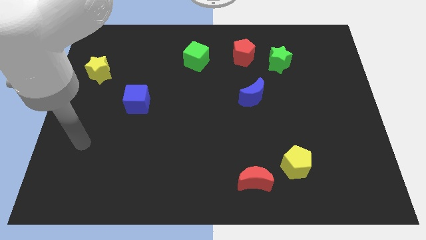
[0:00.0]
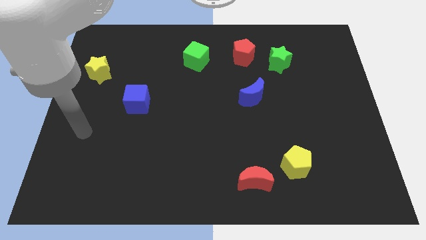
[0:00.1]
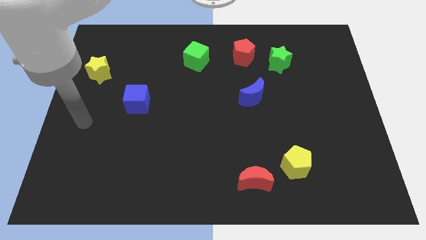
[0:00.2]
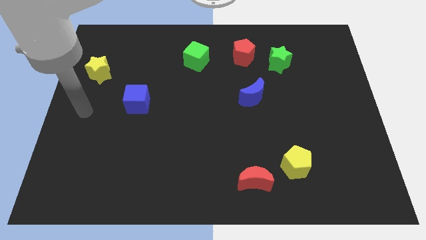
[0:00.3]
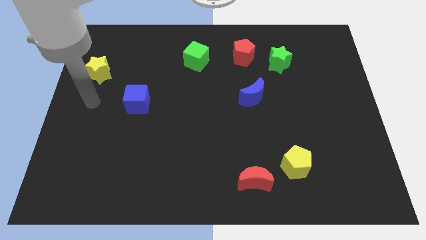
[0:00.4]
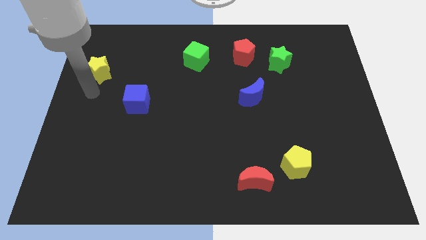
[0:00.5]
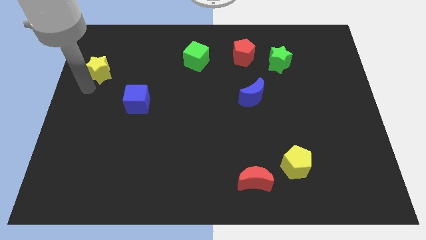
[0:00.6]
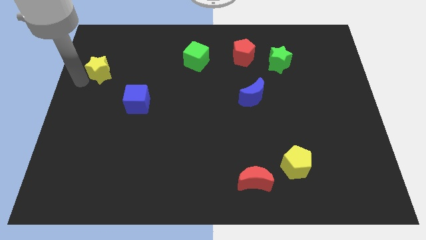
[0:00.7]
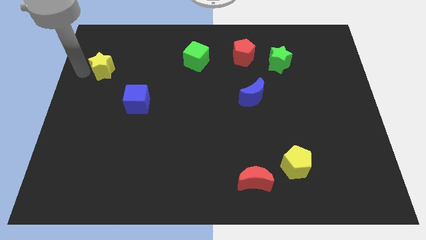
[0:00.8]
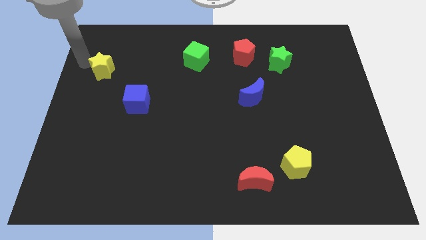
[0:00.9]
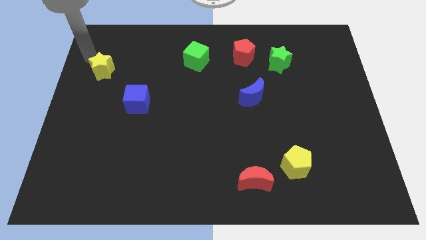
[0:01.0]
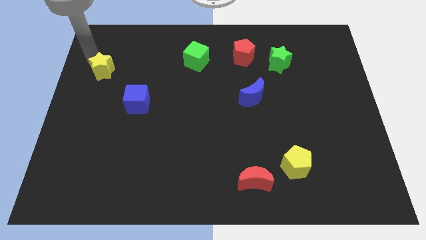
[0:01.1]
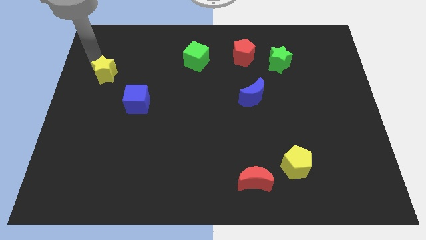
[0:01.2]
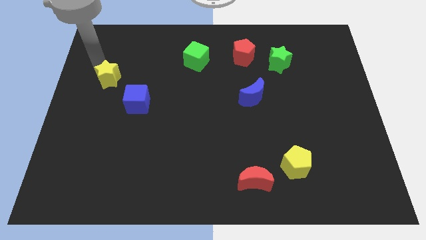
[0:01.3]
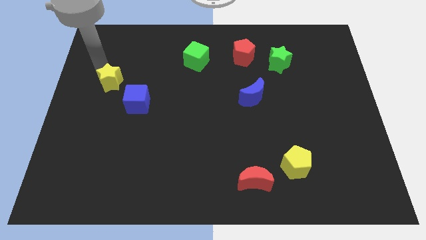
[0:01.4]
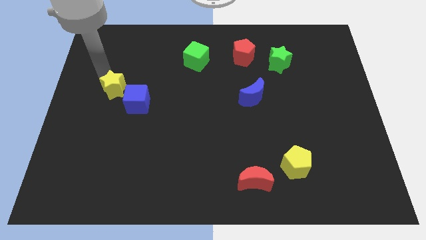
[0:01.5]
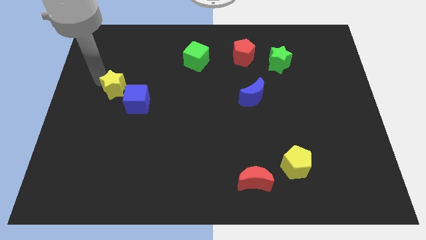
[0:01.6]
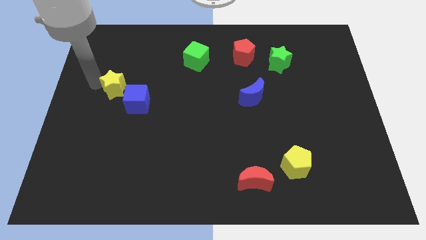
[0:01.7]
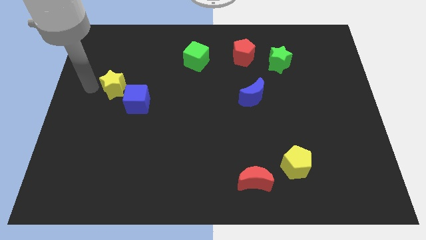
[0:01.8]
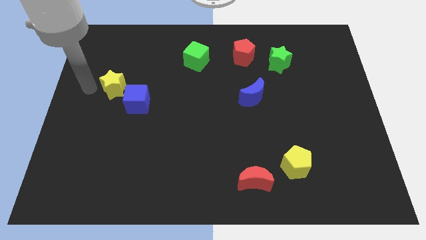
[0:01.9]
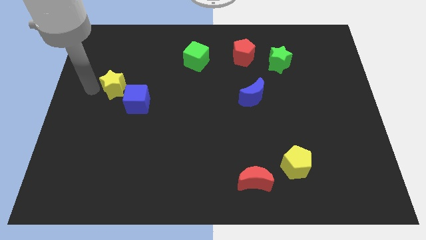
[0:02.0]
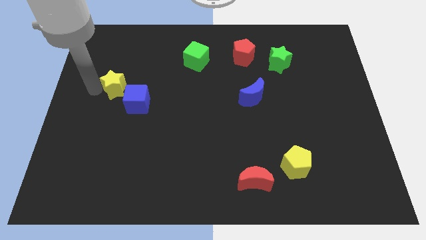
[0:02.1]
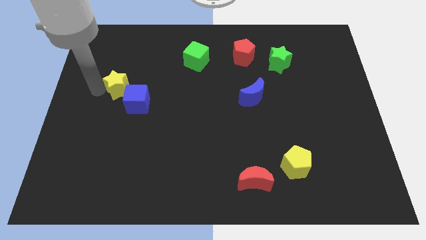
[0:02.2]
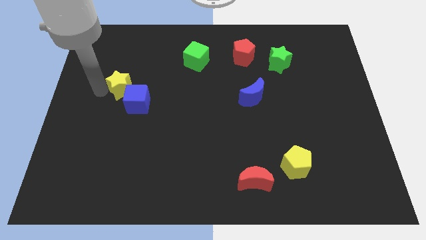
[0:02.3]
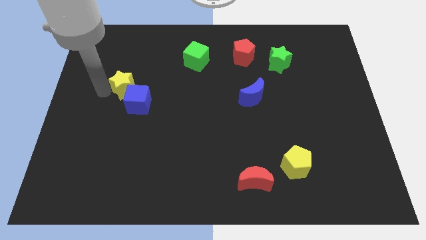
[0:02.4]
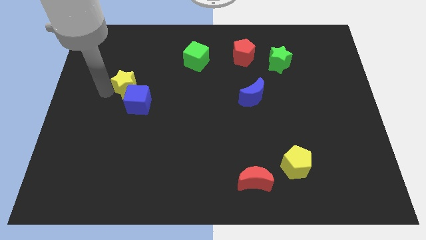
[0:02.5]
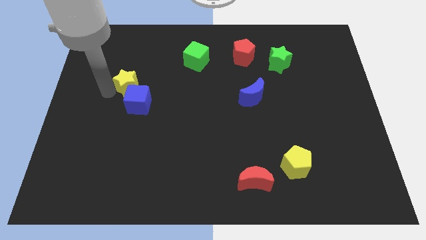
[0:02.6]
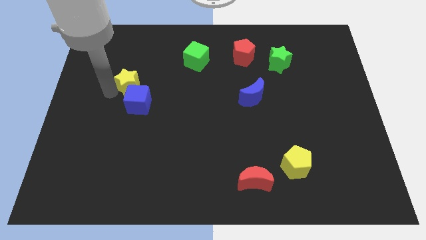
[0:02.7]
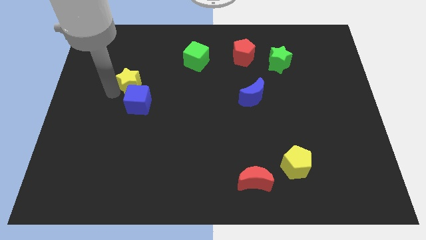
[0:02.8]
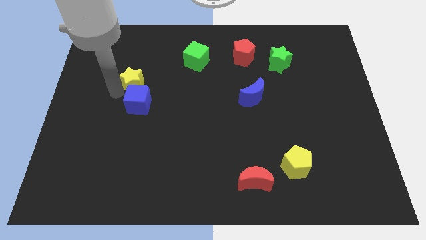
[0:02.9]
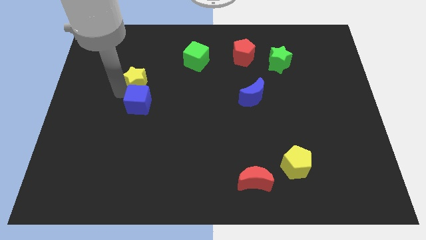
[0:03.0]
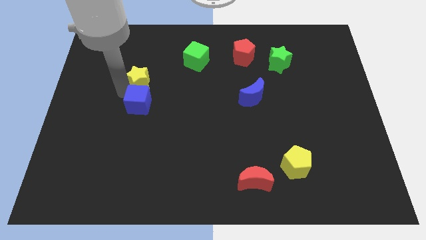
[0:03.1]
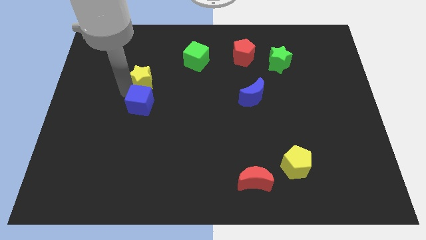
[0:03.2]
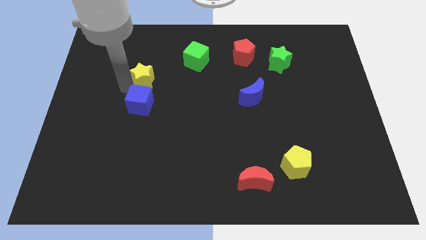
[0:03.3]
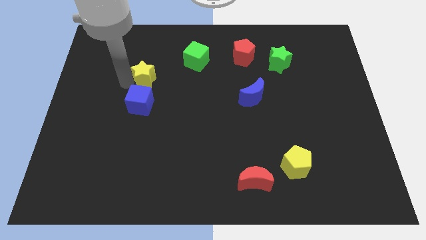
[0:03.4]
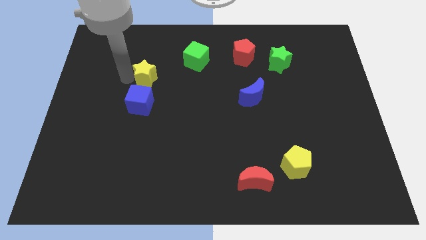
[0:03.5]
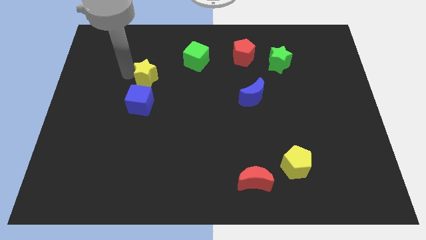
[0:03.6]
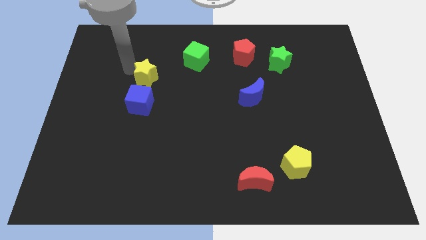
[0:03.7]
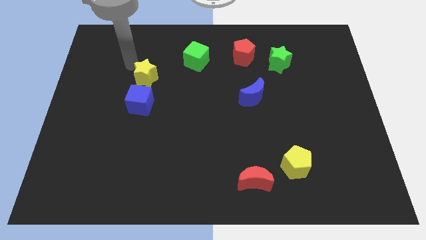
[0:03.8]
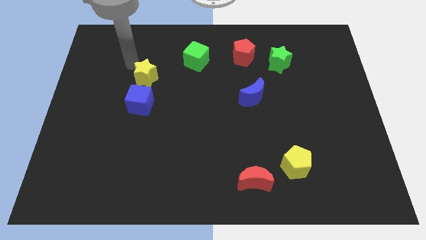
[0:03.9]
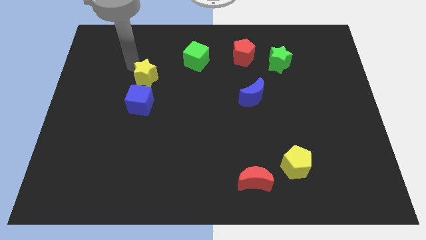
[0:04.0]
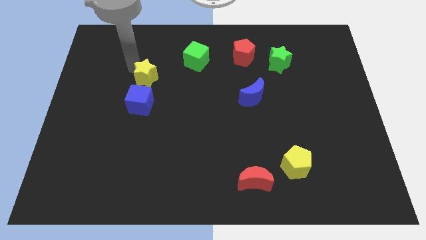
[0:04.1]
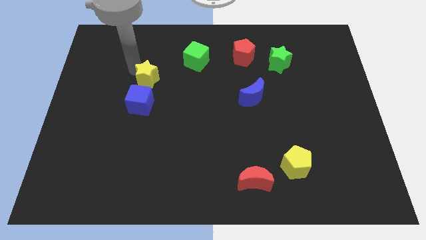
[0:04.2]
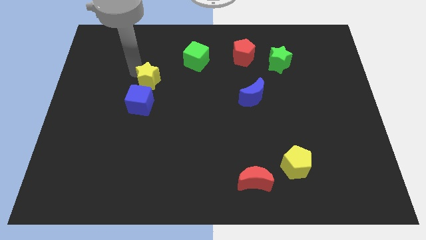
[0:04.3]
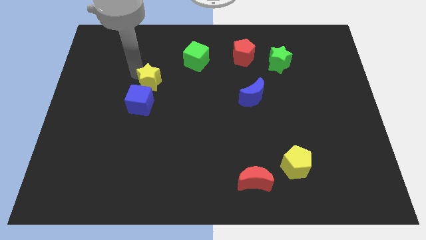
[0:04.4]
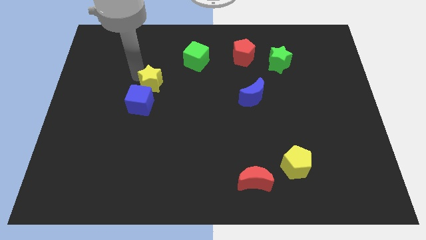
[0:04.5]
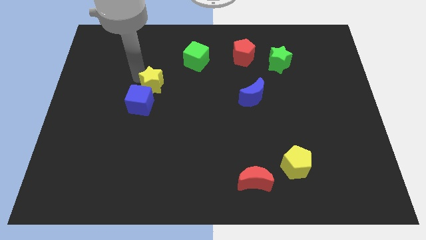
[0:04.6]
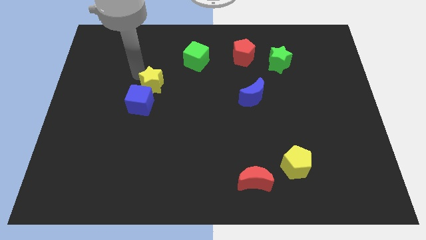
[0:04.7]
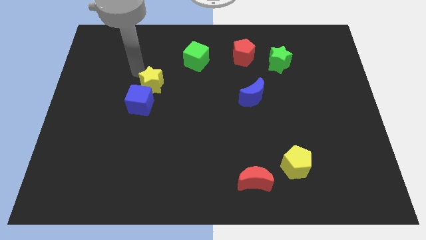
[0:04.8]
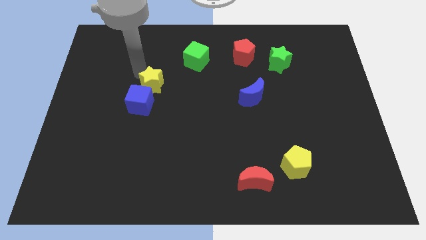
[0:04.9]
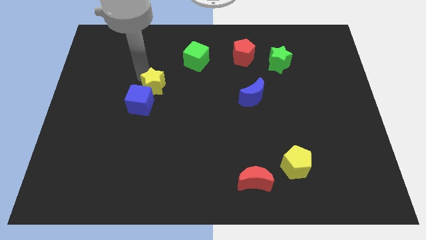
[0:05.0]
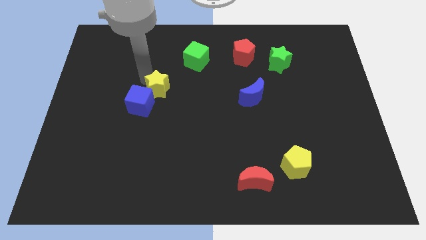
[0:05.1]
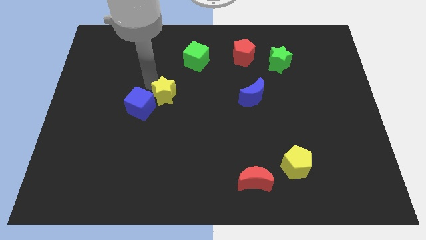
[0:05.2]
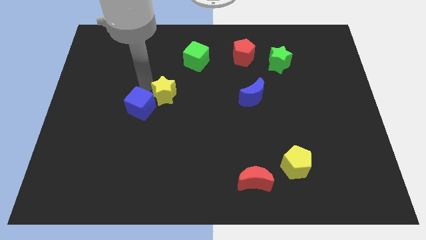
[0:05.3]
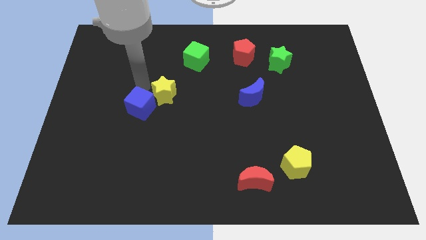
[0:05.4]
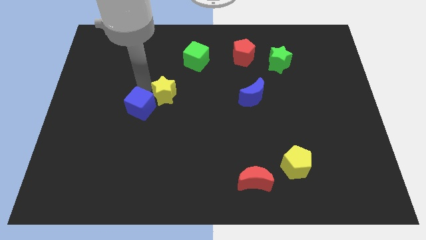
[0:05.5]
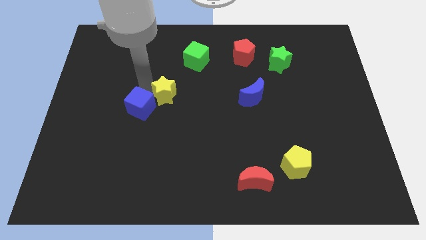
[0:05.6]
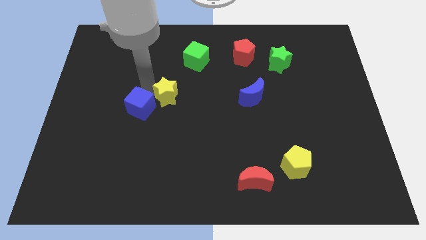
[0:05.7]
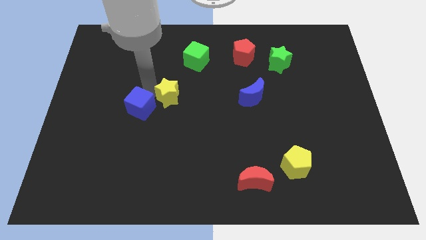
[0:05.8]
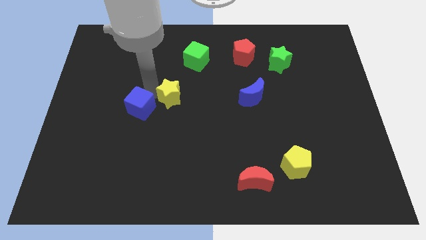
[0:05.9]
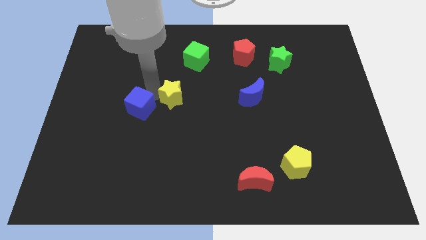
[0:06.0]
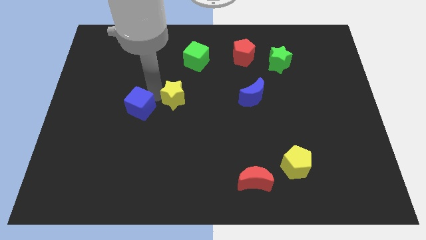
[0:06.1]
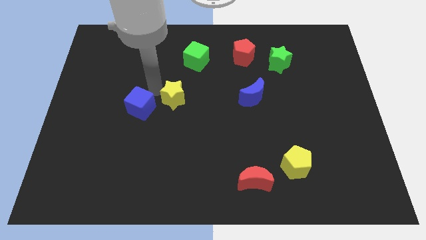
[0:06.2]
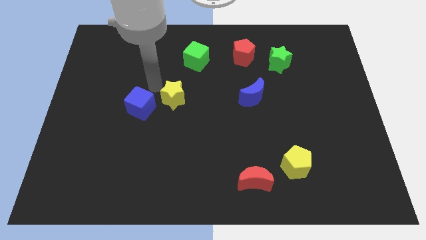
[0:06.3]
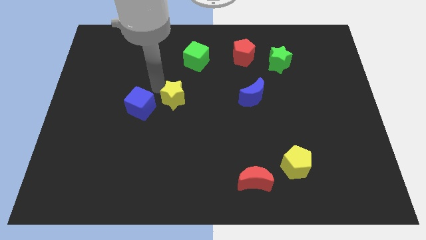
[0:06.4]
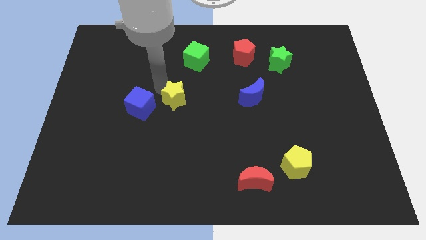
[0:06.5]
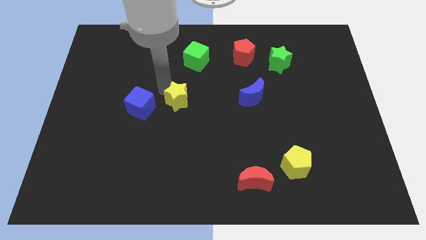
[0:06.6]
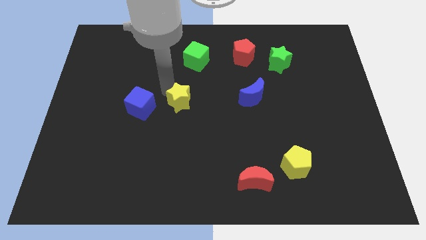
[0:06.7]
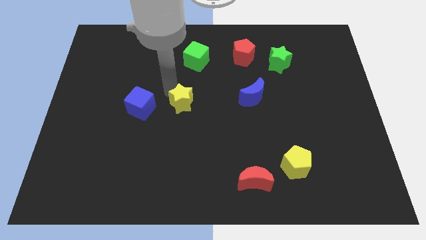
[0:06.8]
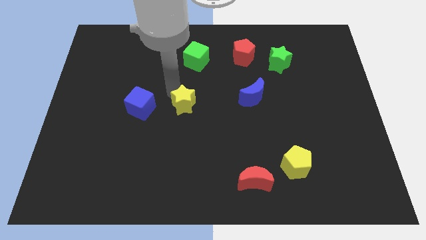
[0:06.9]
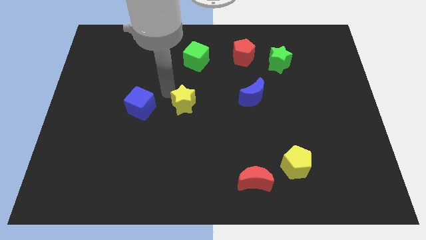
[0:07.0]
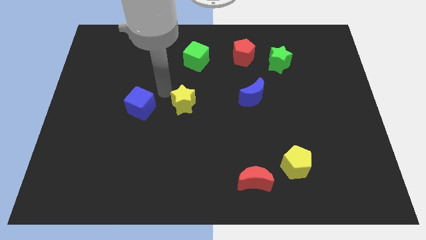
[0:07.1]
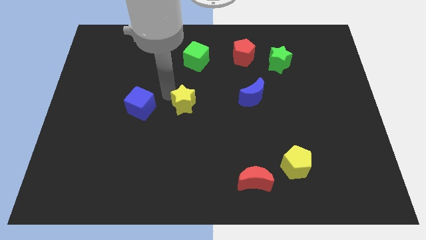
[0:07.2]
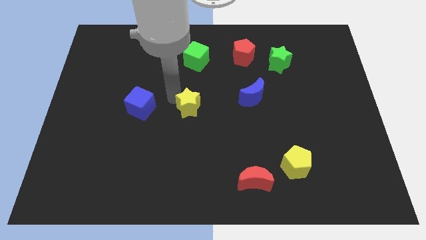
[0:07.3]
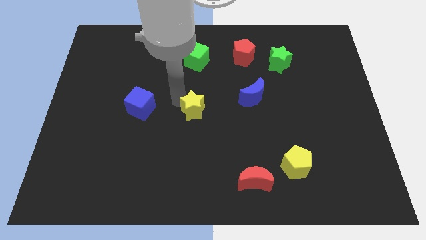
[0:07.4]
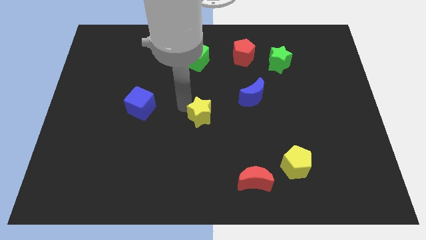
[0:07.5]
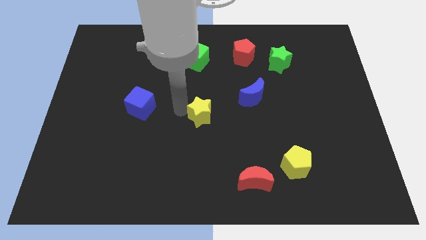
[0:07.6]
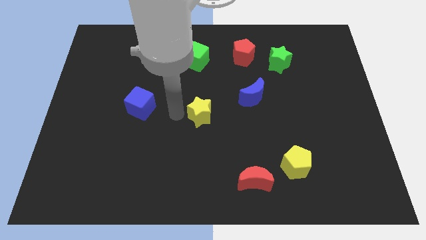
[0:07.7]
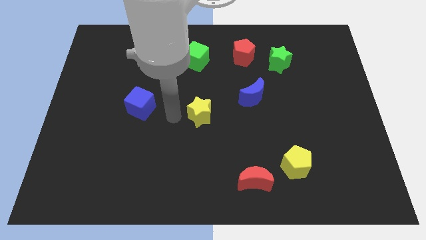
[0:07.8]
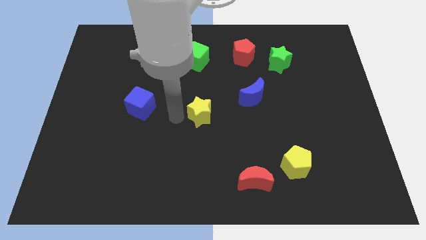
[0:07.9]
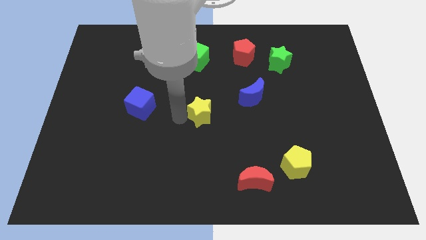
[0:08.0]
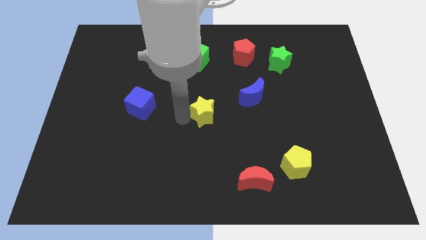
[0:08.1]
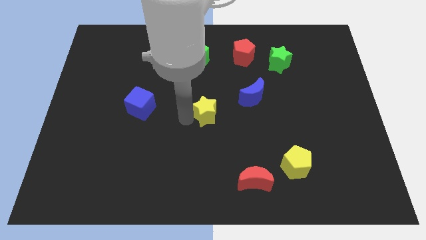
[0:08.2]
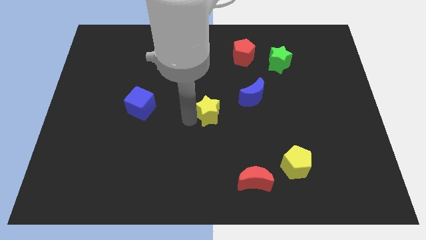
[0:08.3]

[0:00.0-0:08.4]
slide the yellow star to the bottom left of the blue moon
